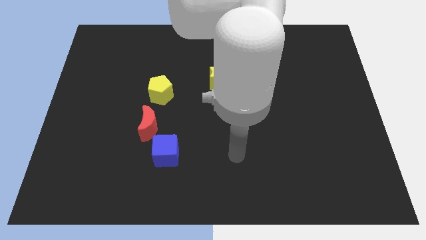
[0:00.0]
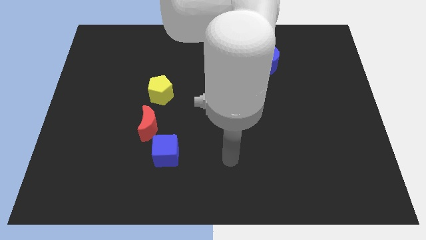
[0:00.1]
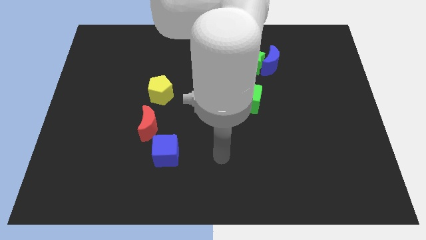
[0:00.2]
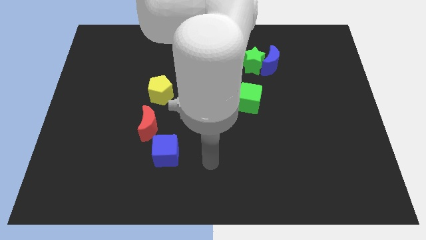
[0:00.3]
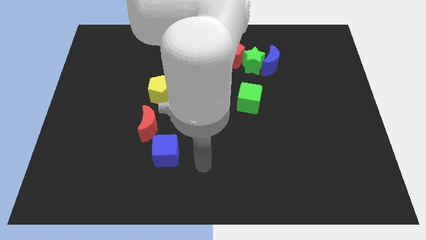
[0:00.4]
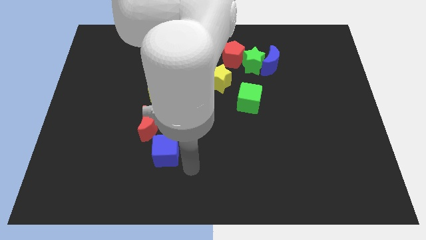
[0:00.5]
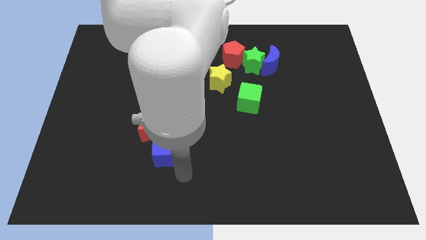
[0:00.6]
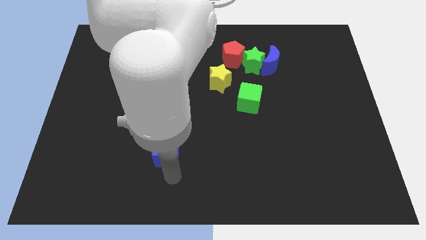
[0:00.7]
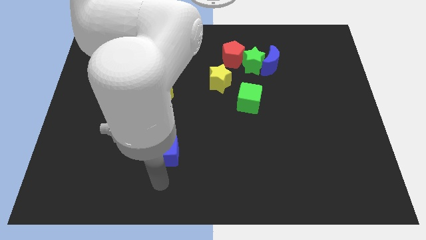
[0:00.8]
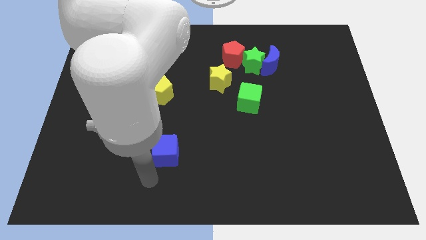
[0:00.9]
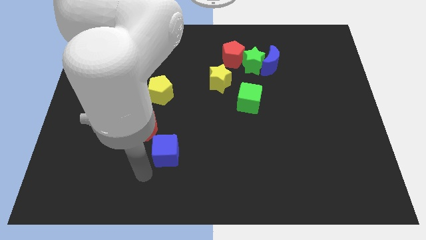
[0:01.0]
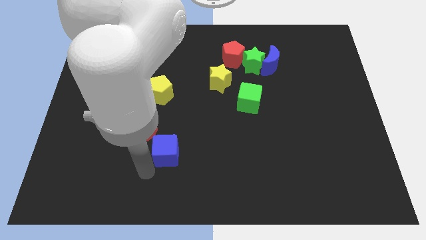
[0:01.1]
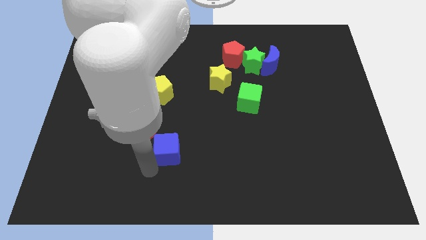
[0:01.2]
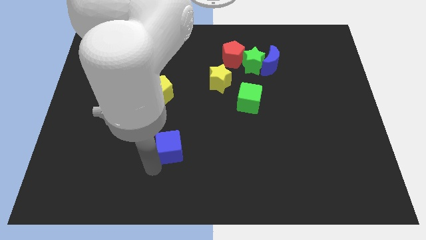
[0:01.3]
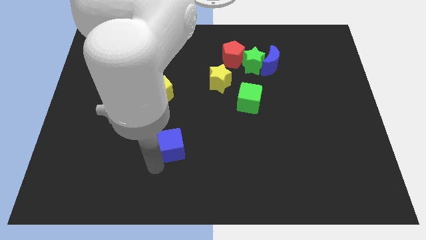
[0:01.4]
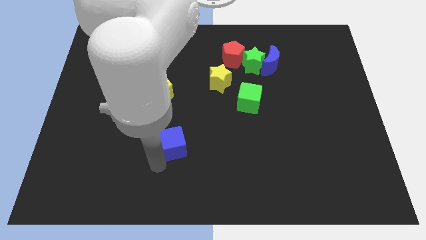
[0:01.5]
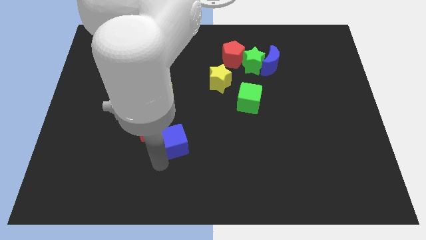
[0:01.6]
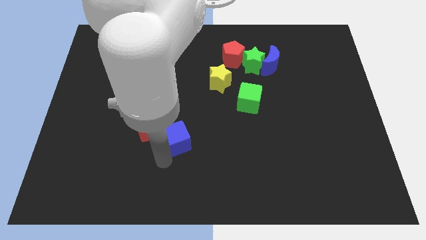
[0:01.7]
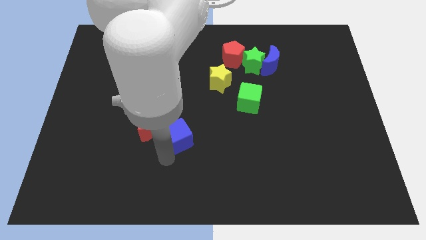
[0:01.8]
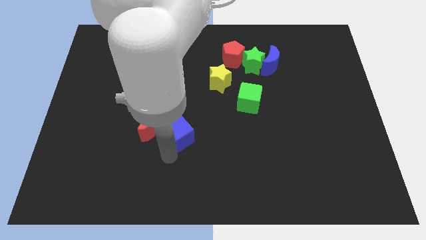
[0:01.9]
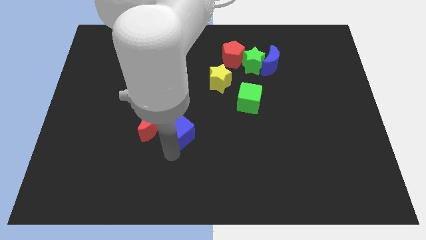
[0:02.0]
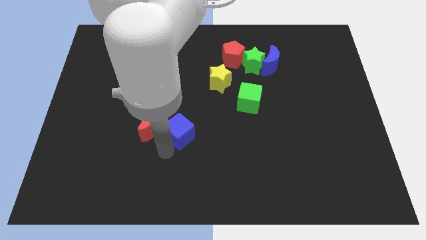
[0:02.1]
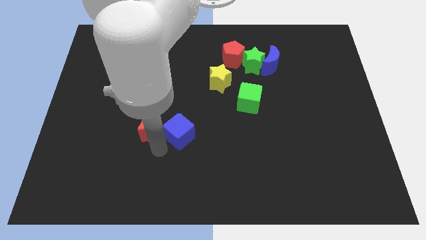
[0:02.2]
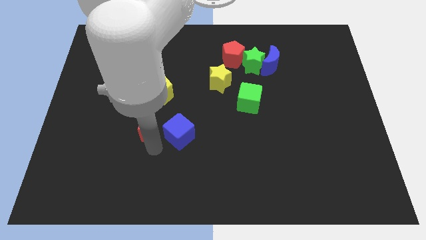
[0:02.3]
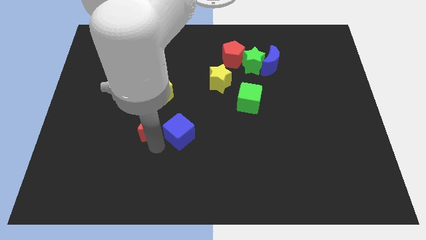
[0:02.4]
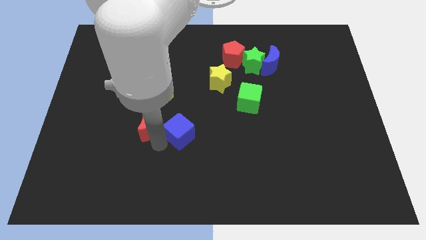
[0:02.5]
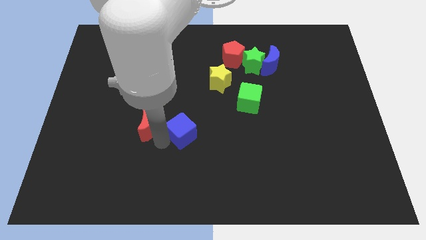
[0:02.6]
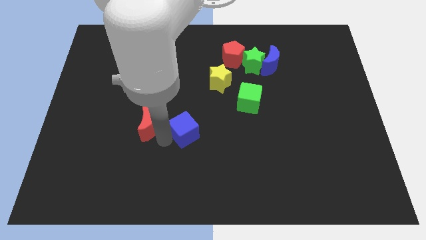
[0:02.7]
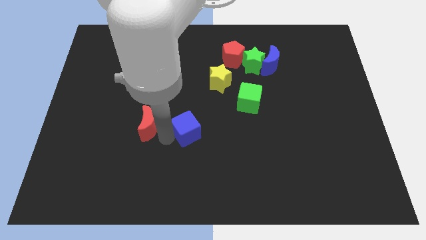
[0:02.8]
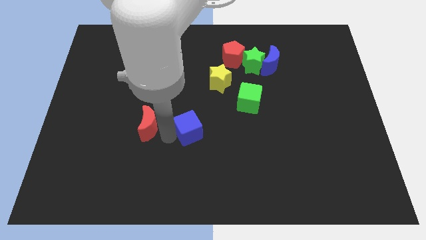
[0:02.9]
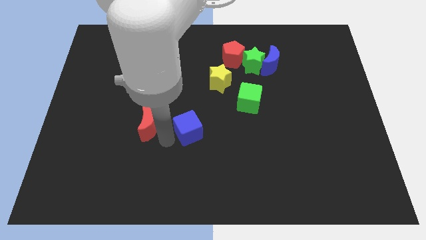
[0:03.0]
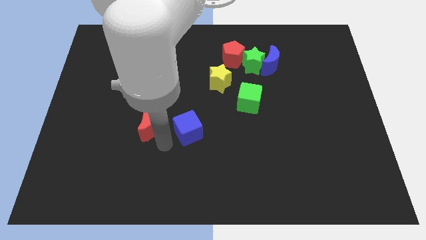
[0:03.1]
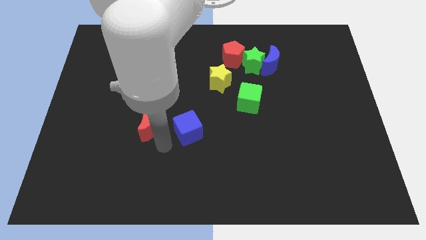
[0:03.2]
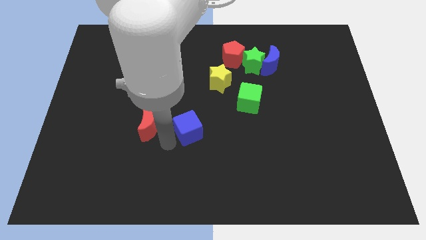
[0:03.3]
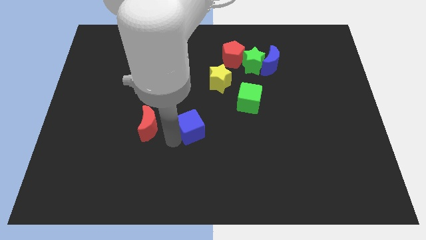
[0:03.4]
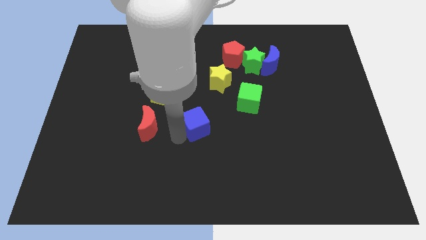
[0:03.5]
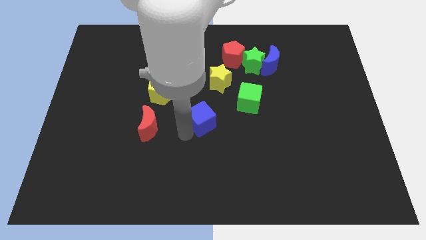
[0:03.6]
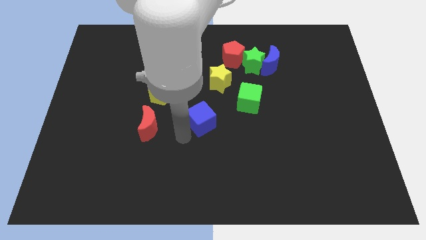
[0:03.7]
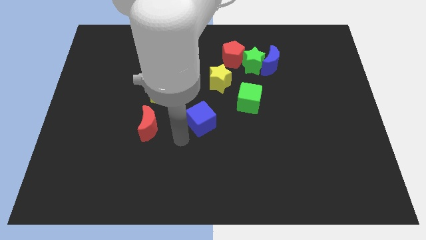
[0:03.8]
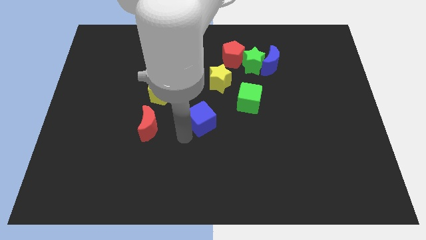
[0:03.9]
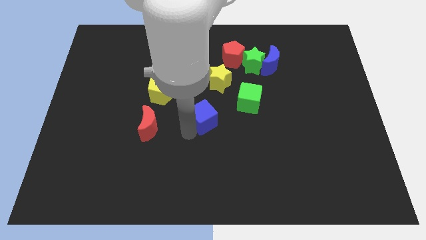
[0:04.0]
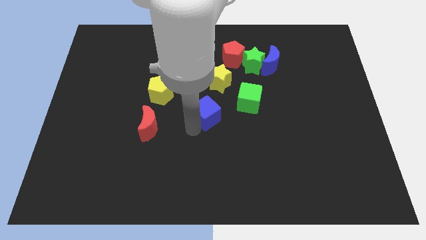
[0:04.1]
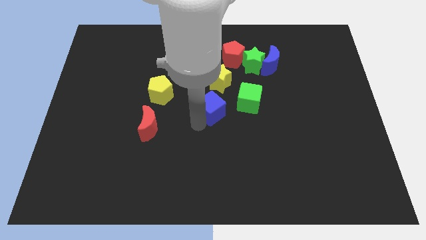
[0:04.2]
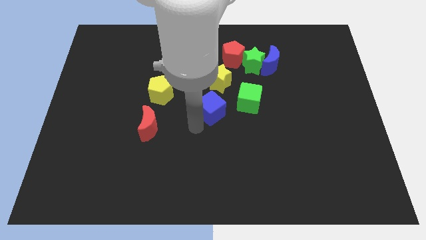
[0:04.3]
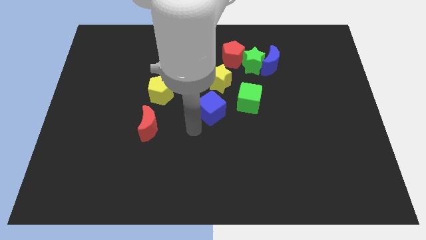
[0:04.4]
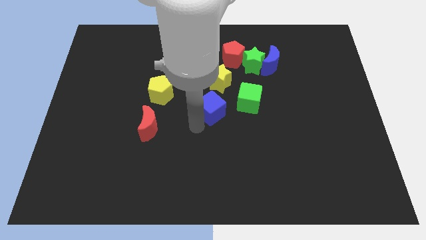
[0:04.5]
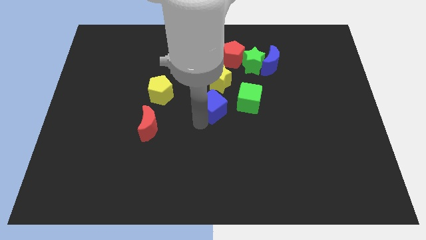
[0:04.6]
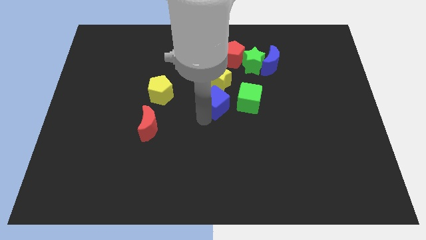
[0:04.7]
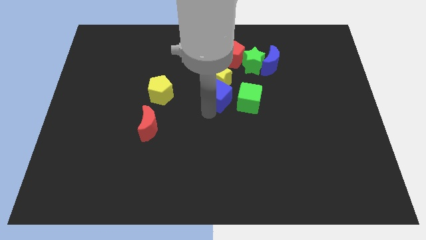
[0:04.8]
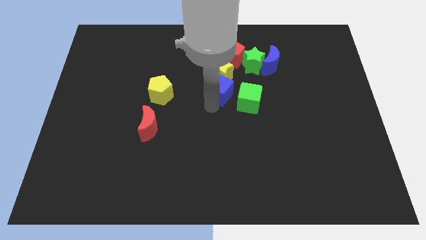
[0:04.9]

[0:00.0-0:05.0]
slide the blue cube upwards and right

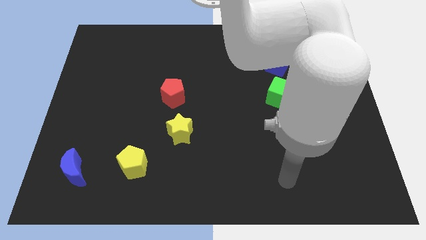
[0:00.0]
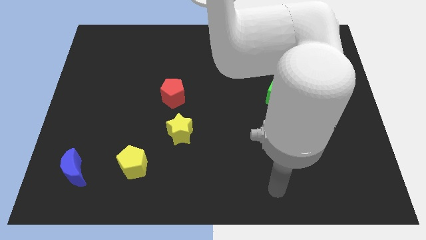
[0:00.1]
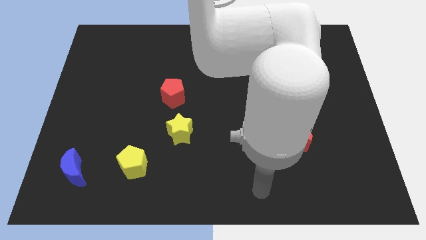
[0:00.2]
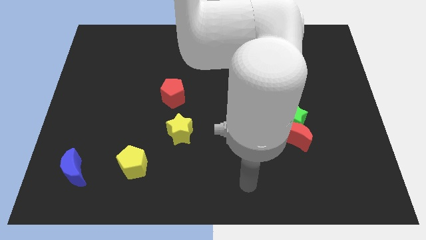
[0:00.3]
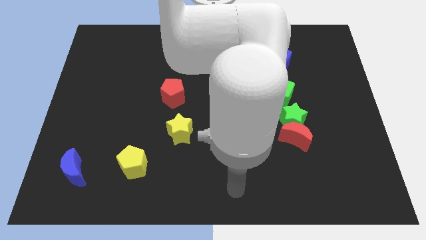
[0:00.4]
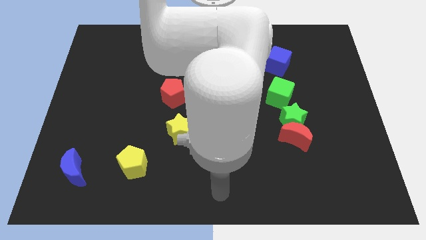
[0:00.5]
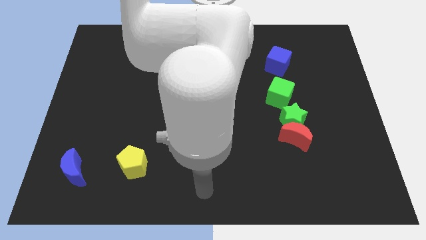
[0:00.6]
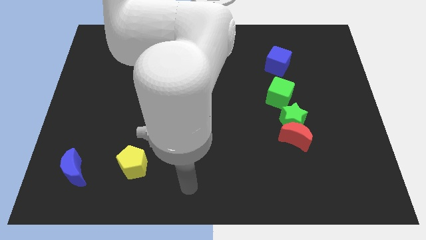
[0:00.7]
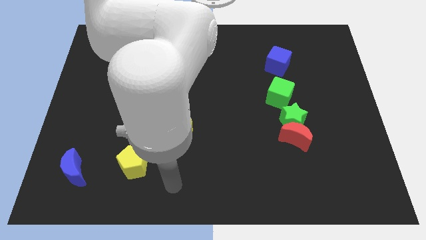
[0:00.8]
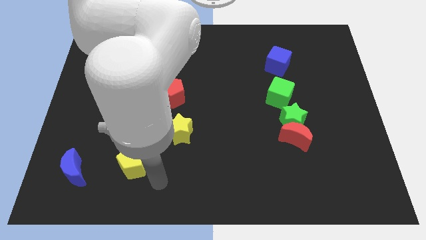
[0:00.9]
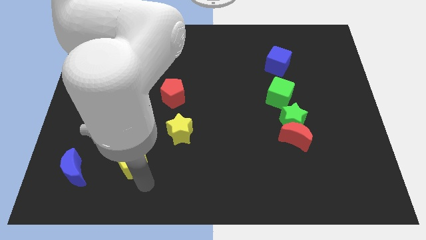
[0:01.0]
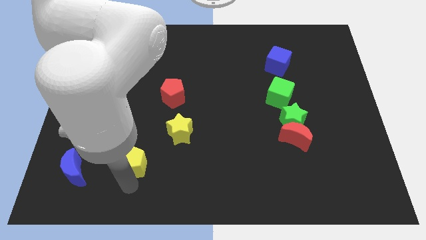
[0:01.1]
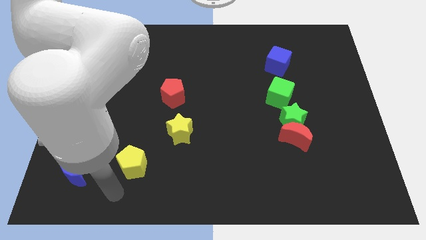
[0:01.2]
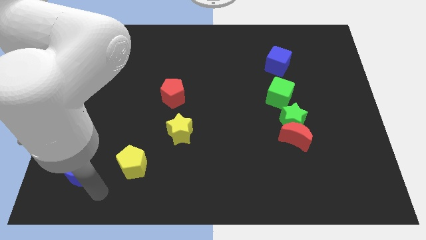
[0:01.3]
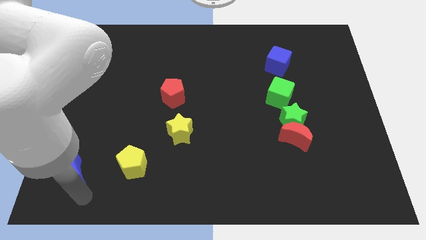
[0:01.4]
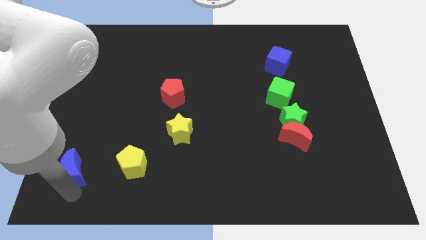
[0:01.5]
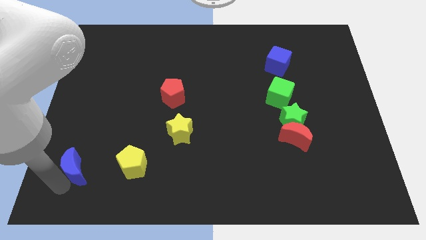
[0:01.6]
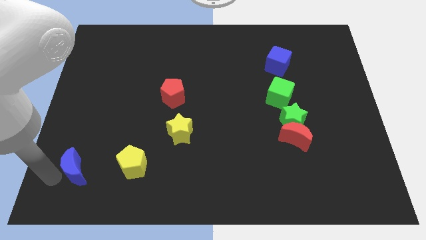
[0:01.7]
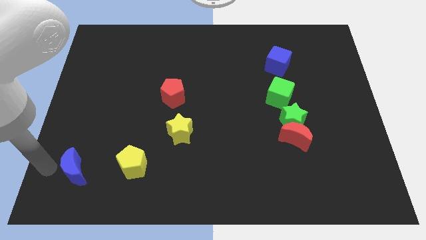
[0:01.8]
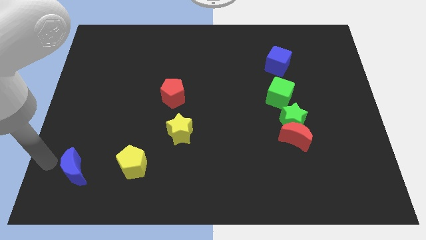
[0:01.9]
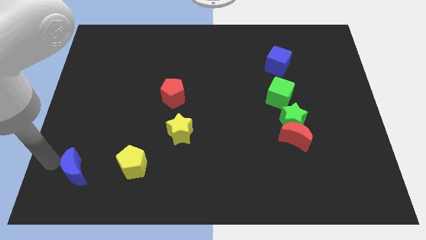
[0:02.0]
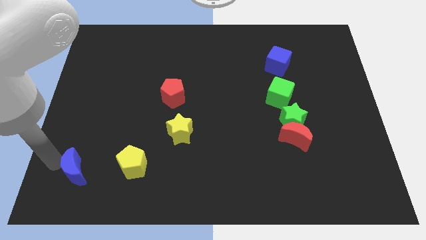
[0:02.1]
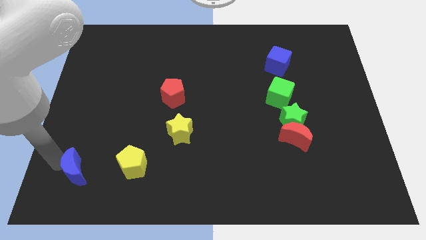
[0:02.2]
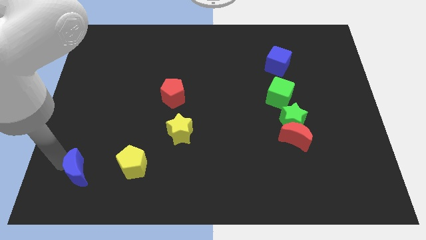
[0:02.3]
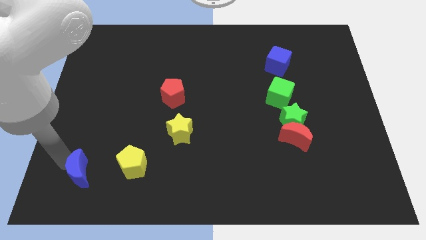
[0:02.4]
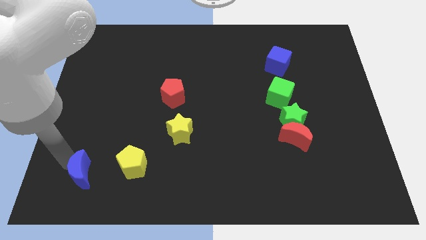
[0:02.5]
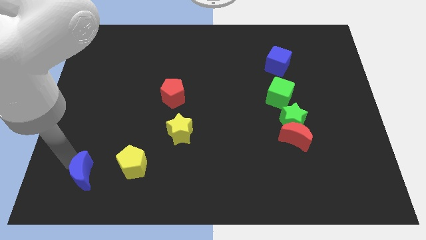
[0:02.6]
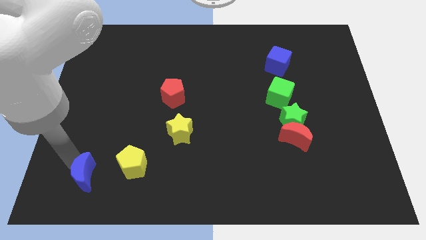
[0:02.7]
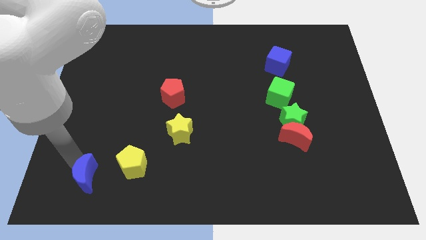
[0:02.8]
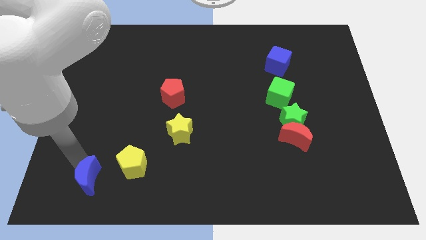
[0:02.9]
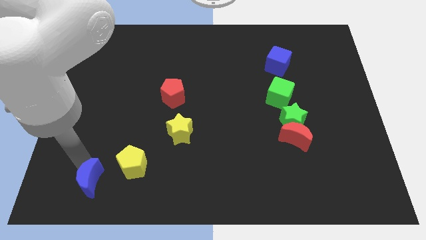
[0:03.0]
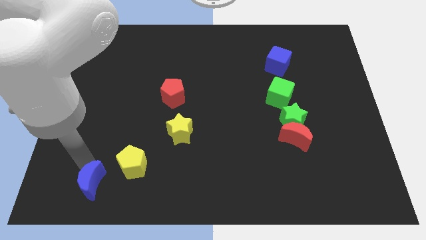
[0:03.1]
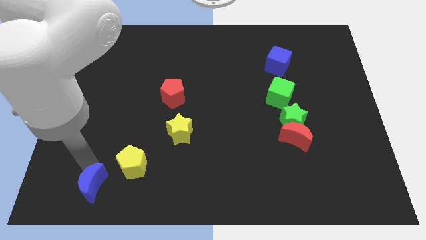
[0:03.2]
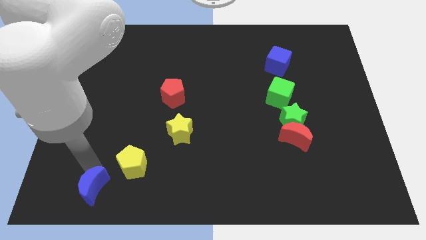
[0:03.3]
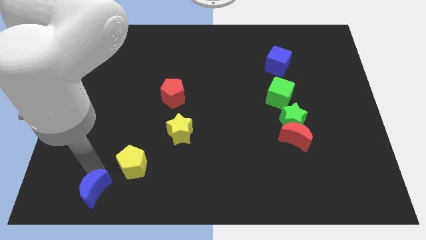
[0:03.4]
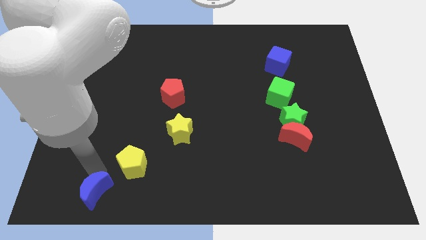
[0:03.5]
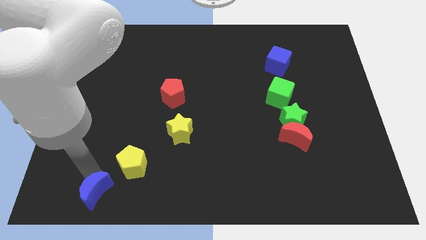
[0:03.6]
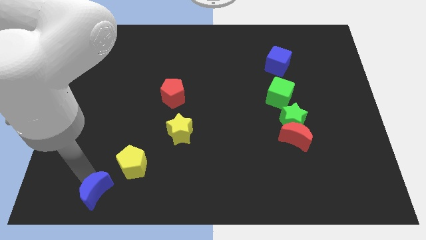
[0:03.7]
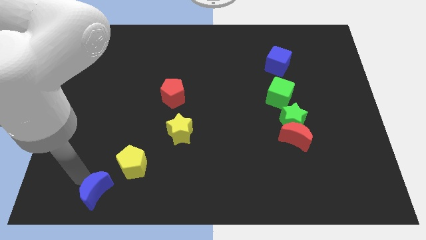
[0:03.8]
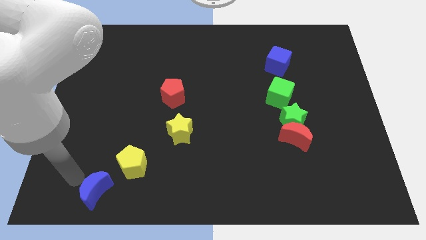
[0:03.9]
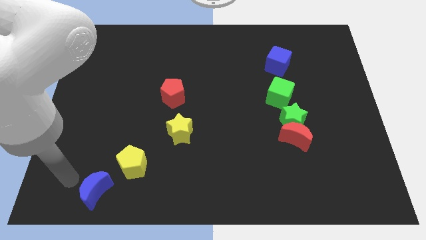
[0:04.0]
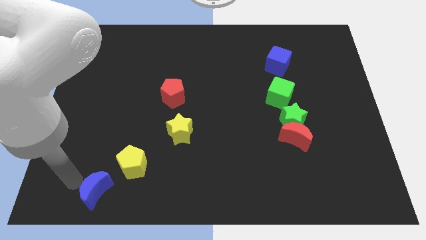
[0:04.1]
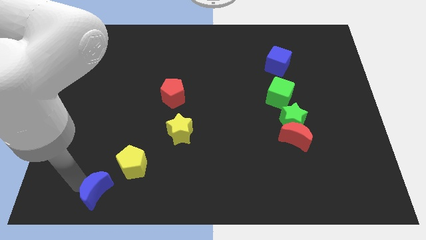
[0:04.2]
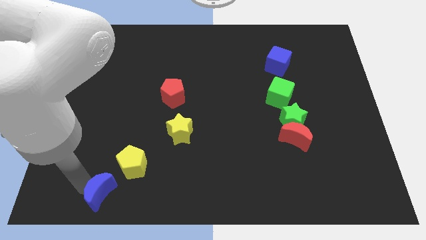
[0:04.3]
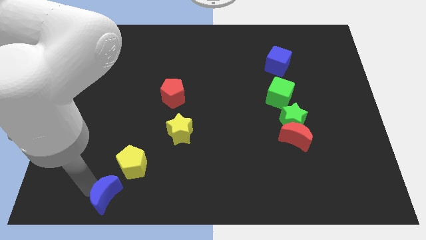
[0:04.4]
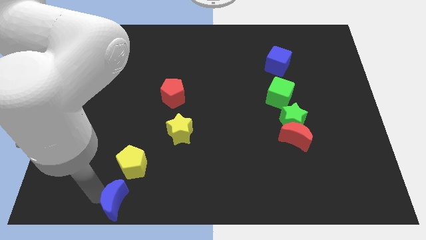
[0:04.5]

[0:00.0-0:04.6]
move the blue moon to the right slightly
